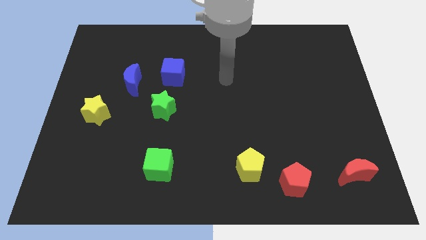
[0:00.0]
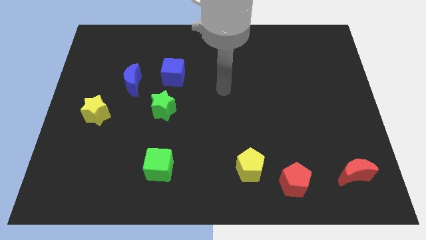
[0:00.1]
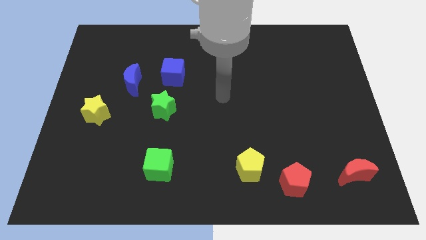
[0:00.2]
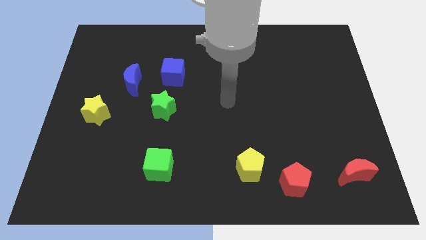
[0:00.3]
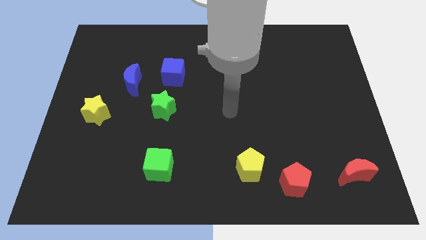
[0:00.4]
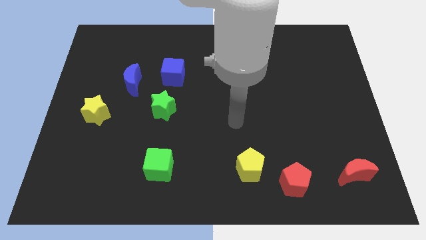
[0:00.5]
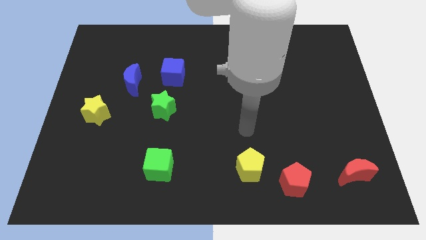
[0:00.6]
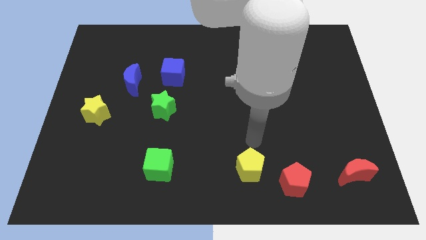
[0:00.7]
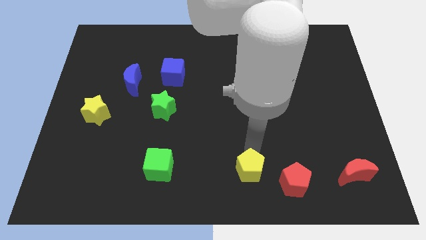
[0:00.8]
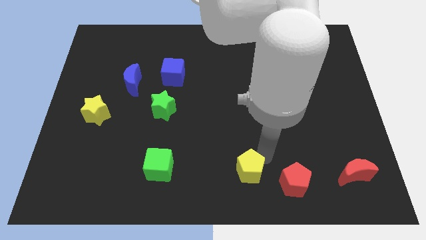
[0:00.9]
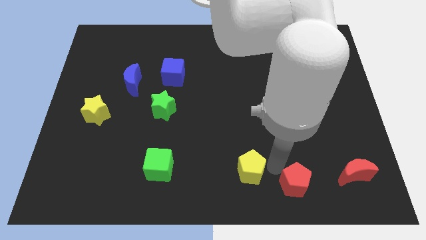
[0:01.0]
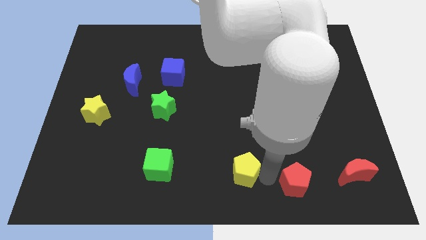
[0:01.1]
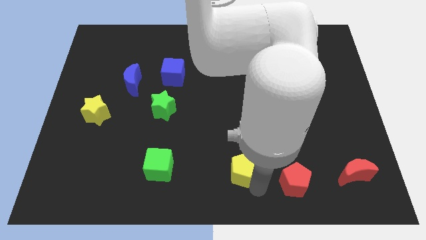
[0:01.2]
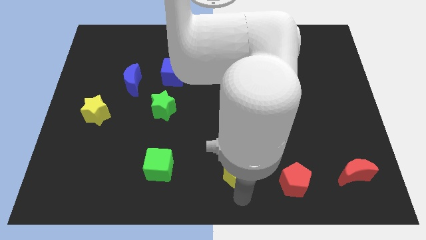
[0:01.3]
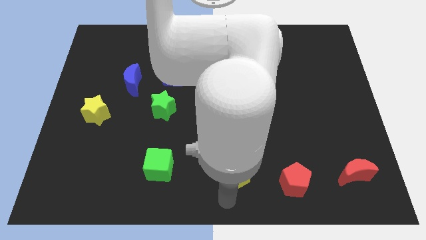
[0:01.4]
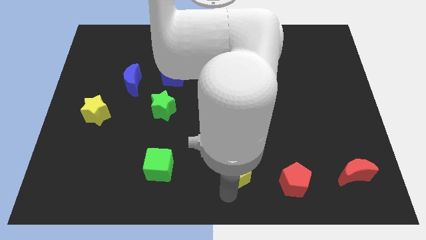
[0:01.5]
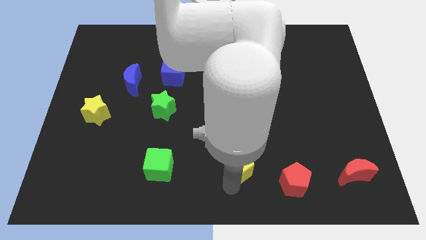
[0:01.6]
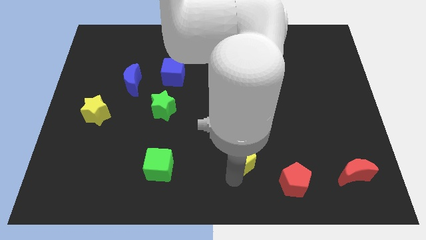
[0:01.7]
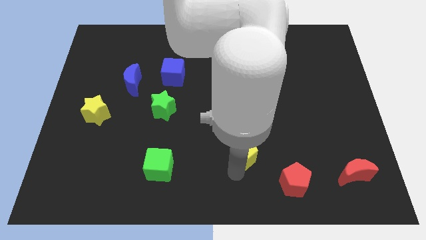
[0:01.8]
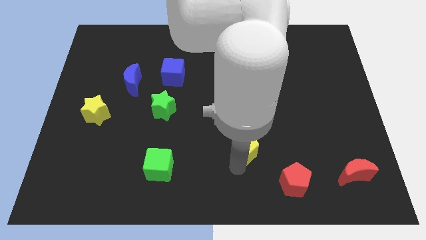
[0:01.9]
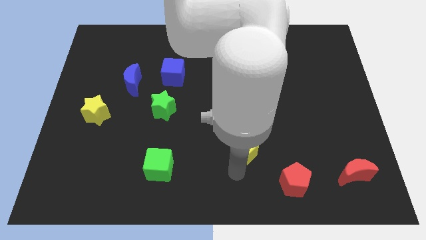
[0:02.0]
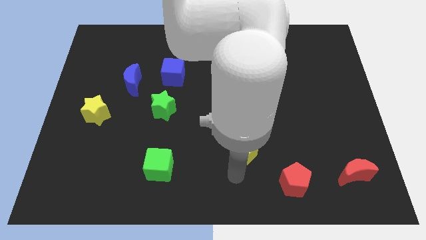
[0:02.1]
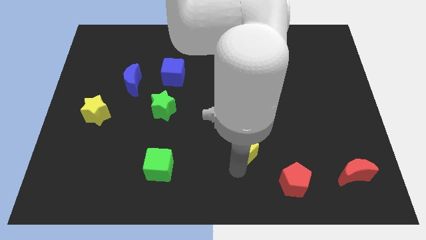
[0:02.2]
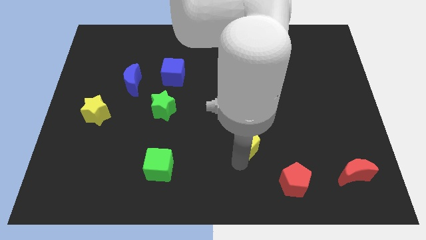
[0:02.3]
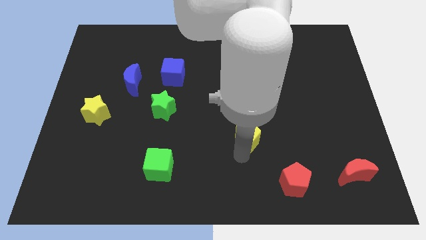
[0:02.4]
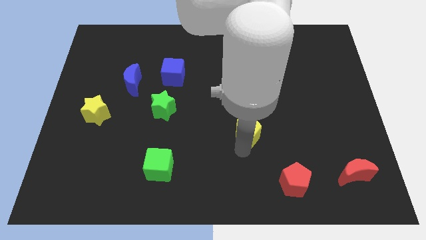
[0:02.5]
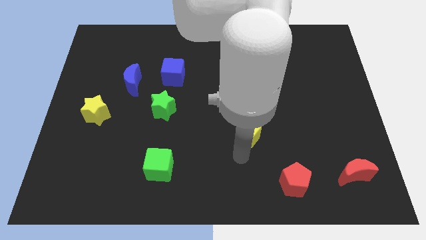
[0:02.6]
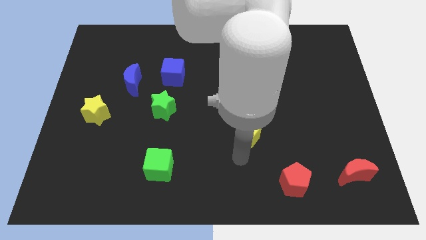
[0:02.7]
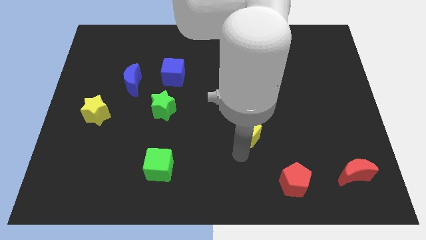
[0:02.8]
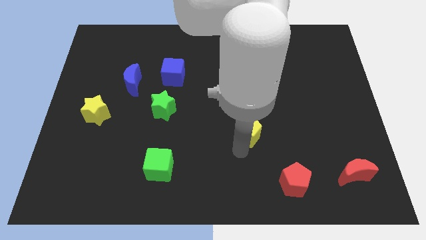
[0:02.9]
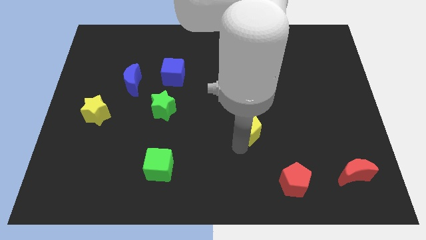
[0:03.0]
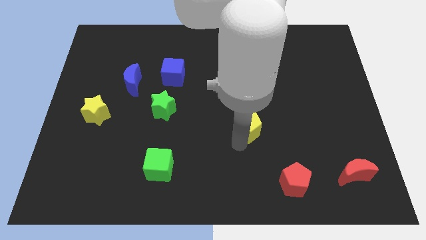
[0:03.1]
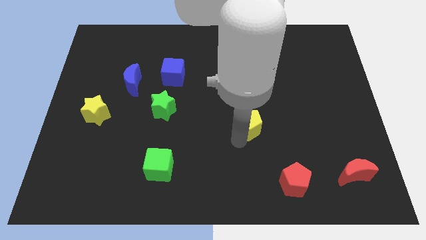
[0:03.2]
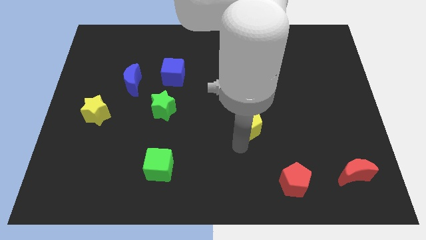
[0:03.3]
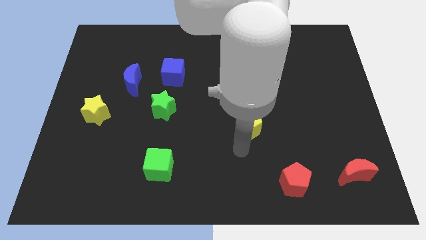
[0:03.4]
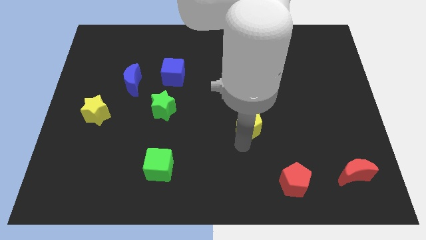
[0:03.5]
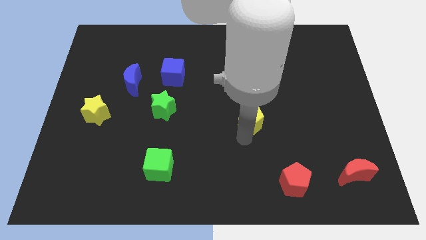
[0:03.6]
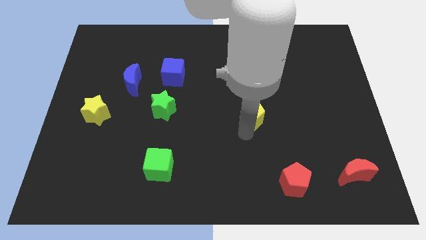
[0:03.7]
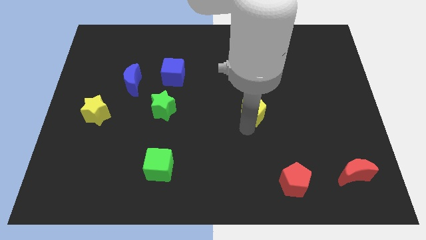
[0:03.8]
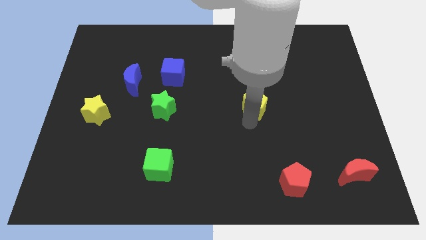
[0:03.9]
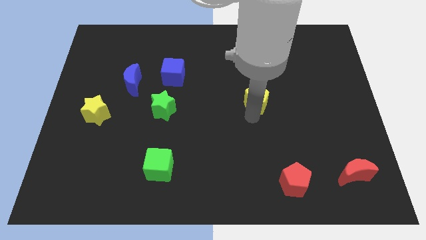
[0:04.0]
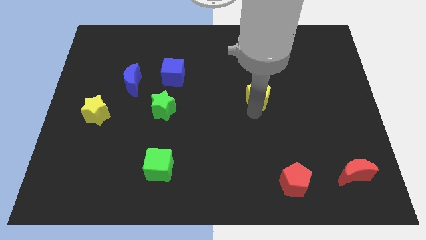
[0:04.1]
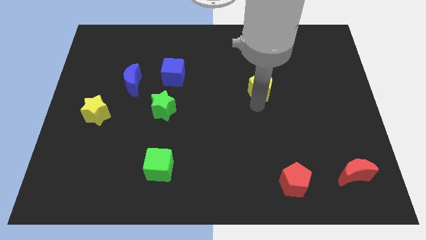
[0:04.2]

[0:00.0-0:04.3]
move the yellow pentagon up

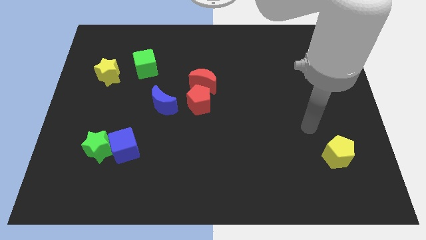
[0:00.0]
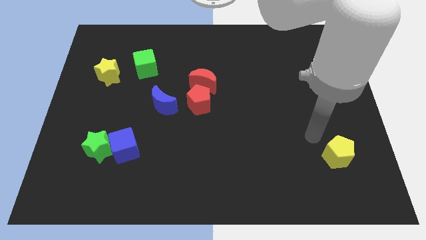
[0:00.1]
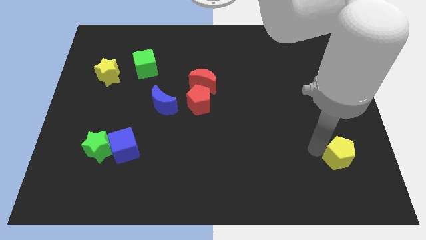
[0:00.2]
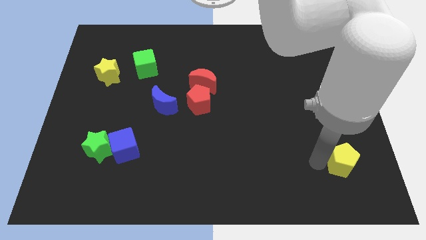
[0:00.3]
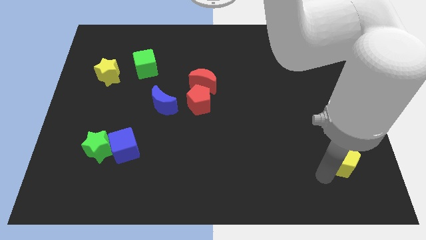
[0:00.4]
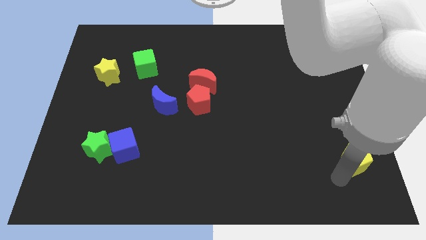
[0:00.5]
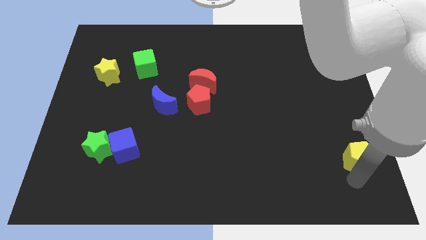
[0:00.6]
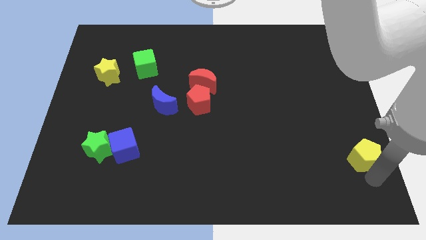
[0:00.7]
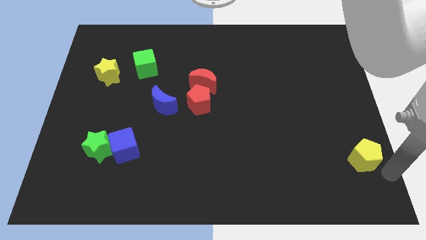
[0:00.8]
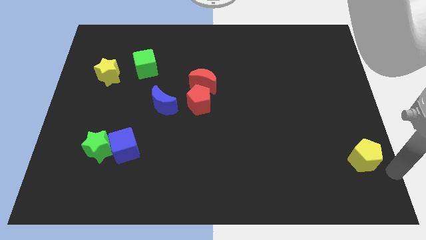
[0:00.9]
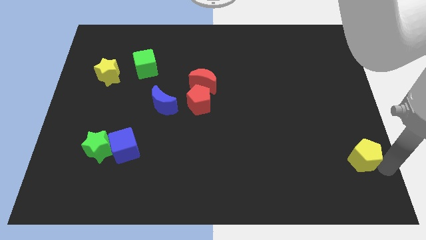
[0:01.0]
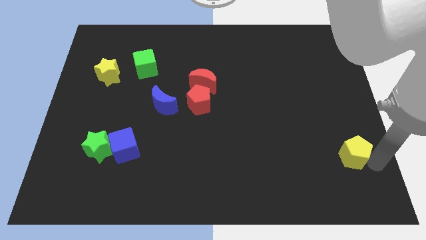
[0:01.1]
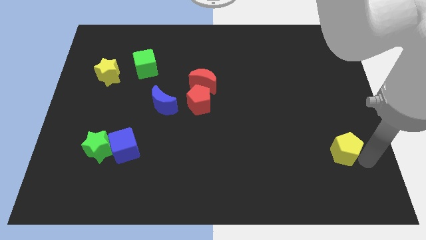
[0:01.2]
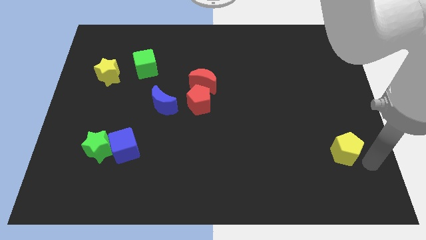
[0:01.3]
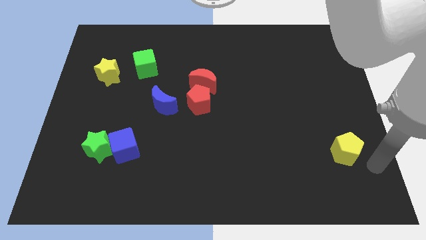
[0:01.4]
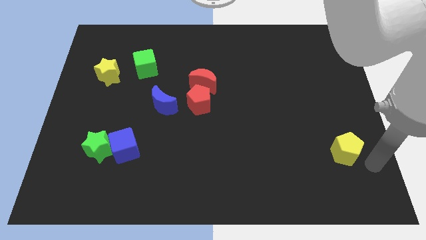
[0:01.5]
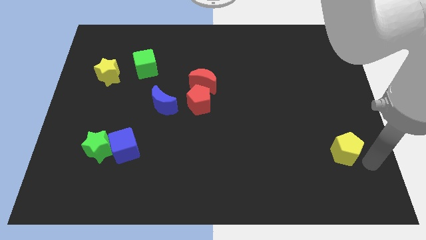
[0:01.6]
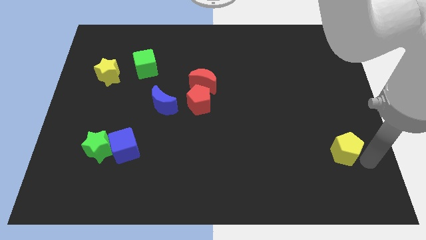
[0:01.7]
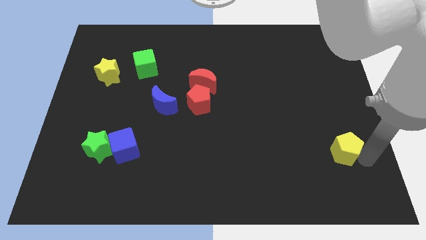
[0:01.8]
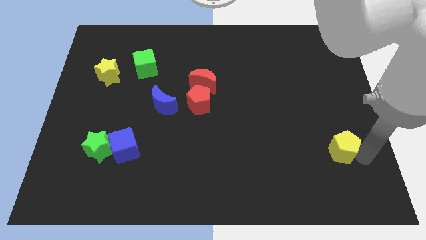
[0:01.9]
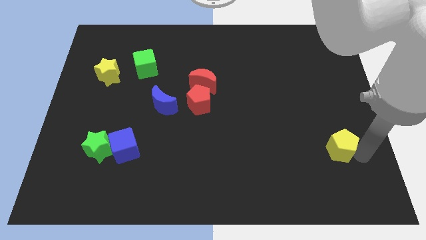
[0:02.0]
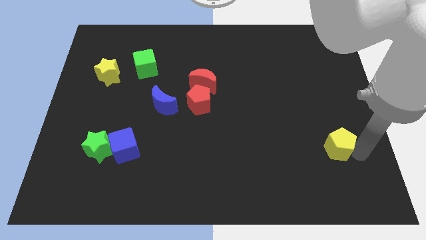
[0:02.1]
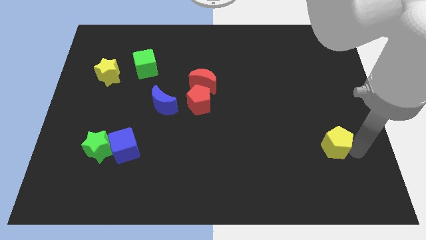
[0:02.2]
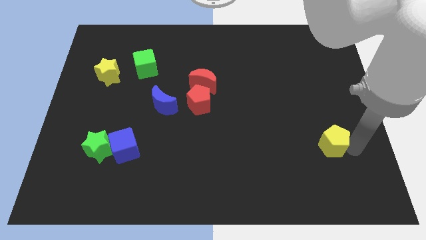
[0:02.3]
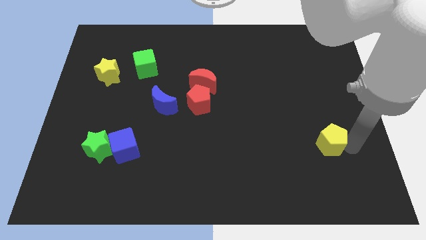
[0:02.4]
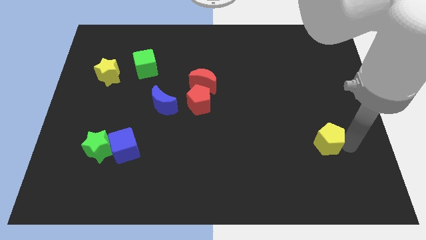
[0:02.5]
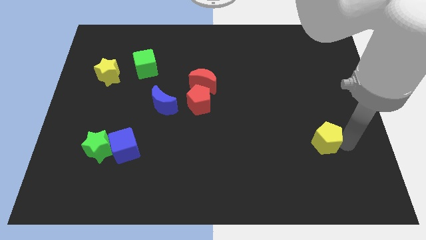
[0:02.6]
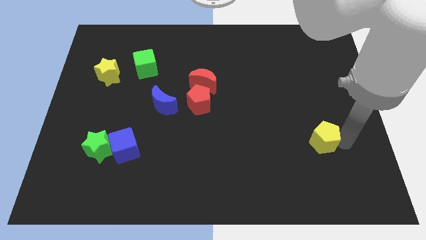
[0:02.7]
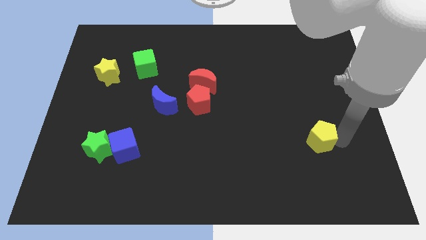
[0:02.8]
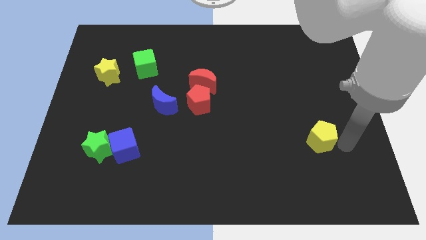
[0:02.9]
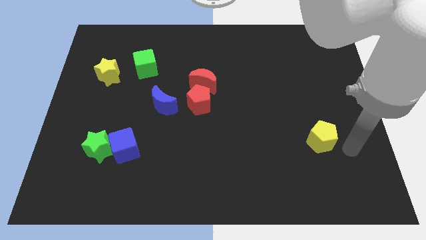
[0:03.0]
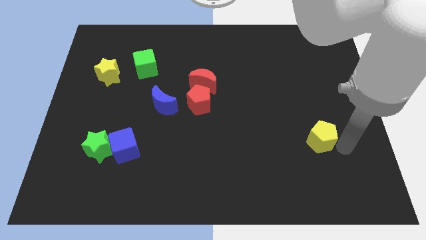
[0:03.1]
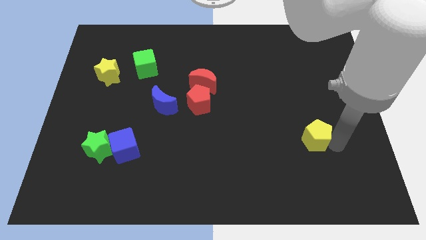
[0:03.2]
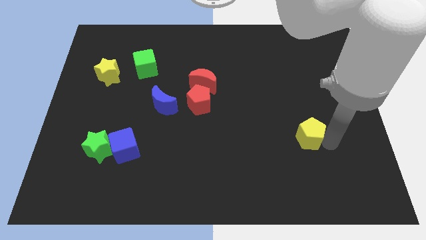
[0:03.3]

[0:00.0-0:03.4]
move the yellow pentagon somewhat up and to the left diagonally

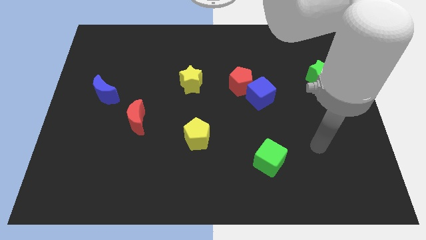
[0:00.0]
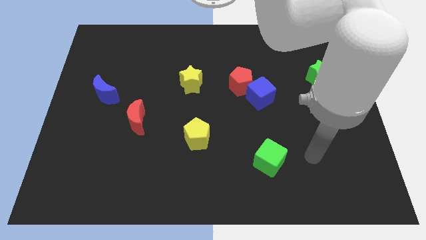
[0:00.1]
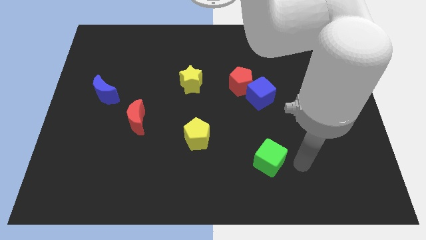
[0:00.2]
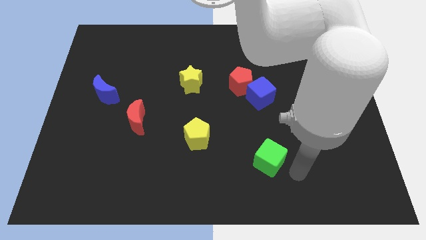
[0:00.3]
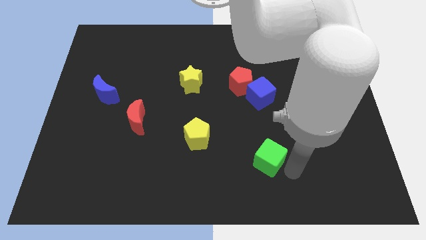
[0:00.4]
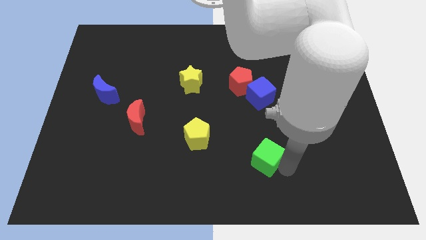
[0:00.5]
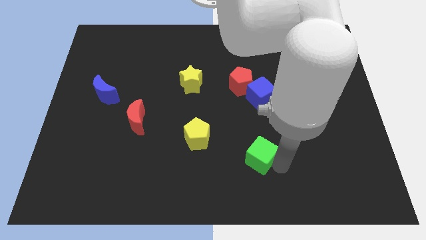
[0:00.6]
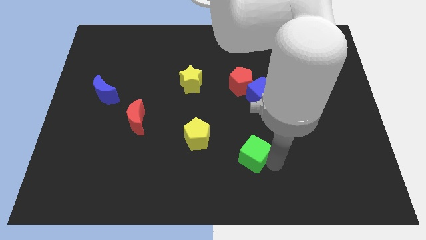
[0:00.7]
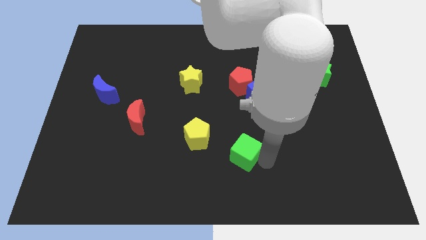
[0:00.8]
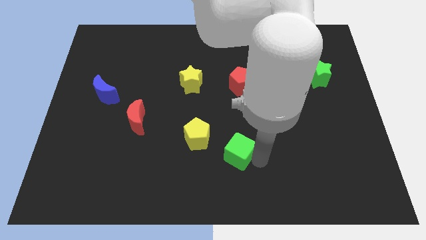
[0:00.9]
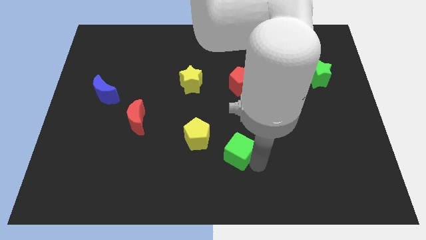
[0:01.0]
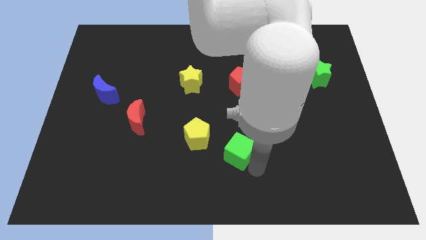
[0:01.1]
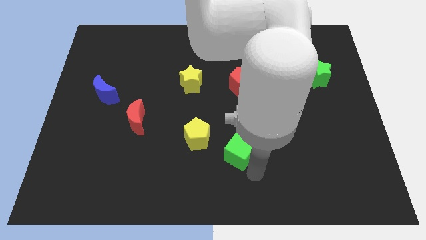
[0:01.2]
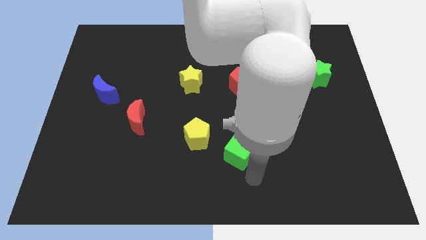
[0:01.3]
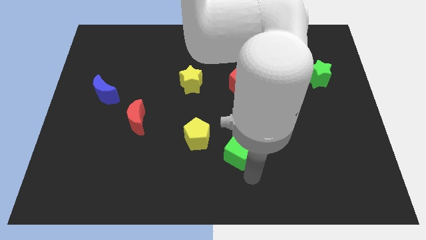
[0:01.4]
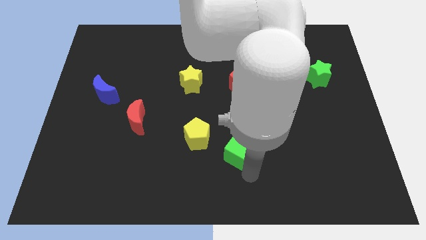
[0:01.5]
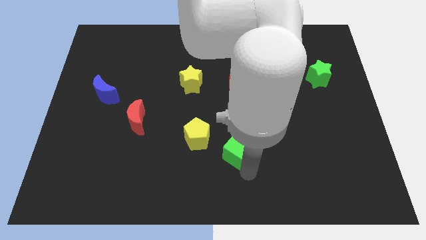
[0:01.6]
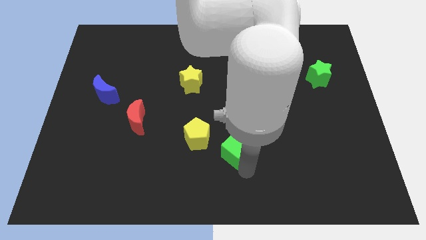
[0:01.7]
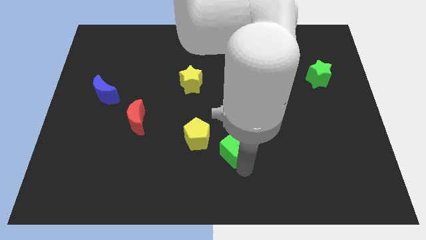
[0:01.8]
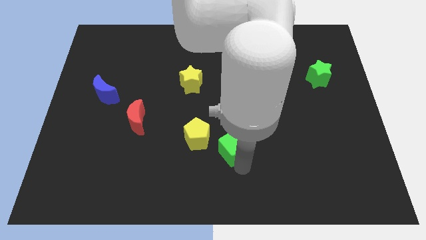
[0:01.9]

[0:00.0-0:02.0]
slide the green cube a bit diagonally upwards and to the left
